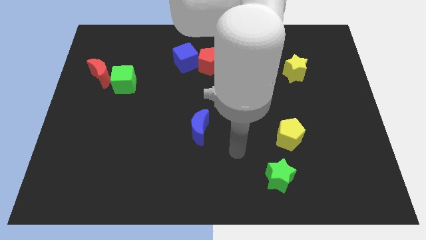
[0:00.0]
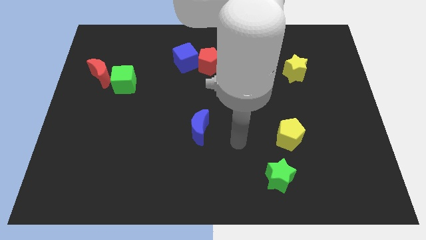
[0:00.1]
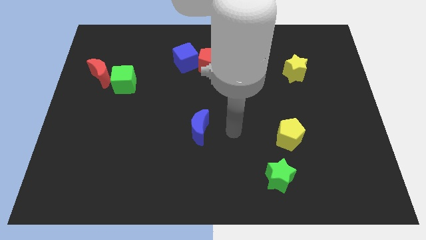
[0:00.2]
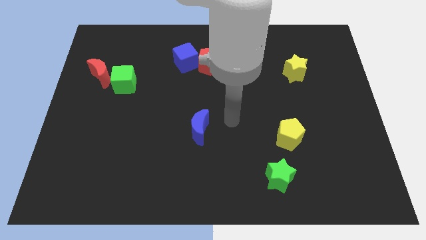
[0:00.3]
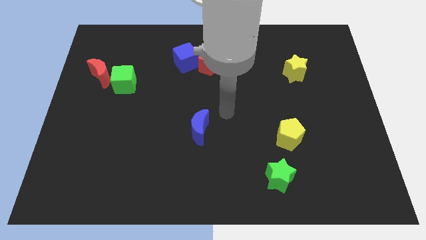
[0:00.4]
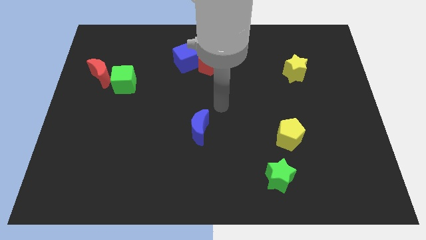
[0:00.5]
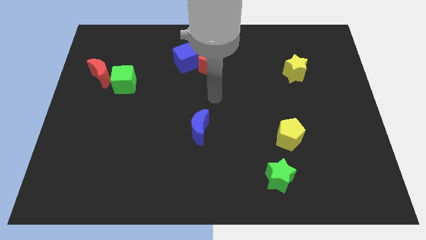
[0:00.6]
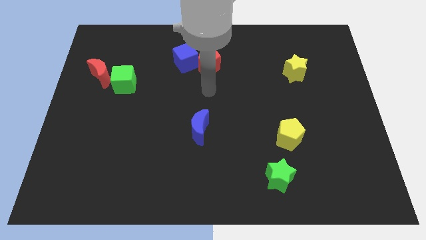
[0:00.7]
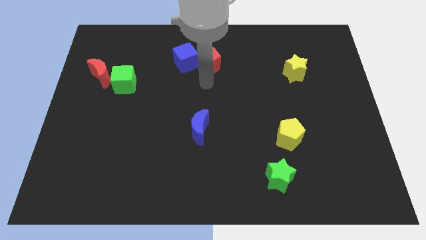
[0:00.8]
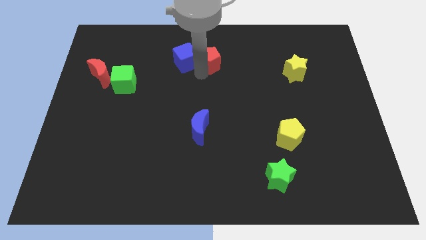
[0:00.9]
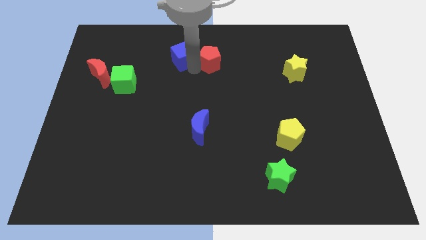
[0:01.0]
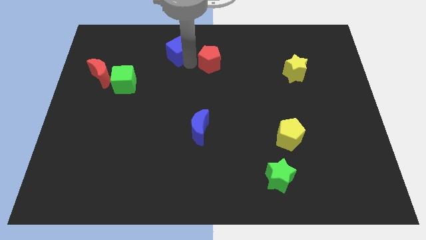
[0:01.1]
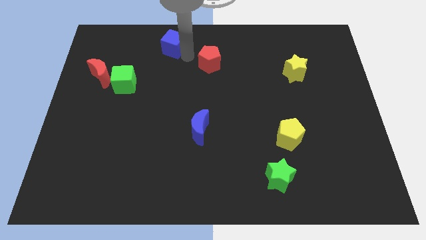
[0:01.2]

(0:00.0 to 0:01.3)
move the red pentagon away from the blue cube

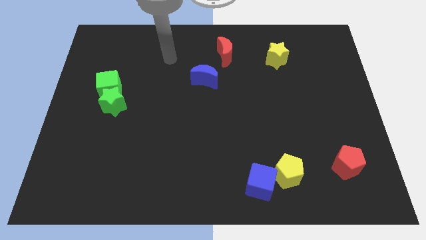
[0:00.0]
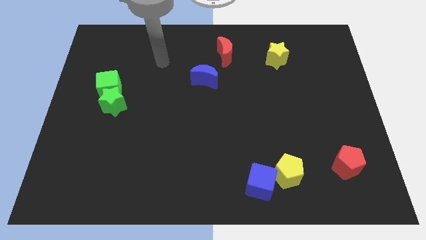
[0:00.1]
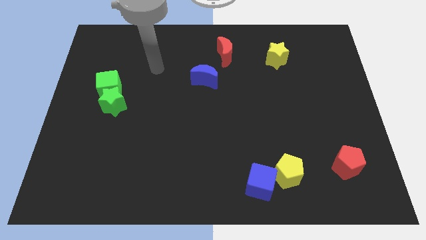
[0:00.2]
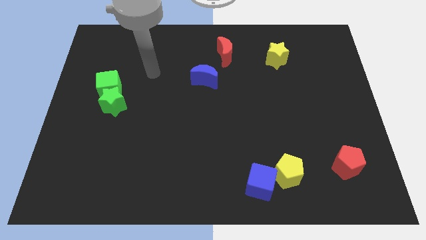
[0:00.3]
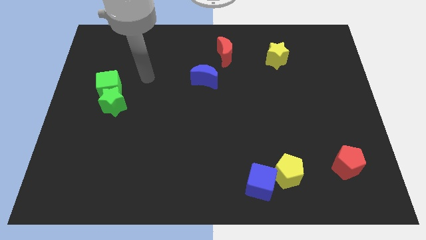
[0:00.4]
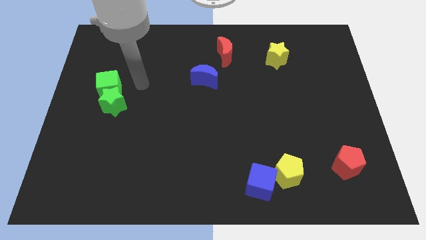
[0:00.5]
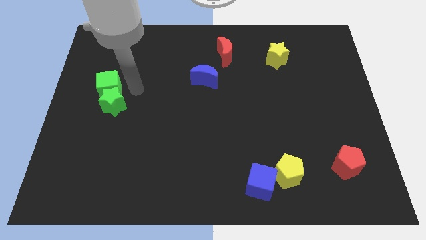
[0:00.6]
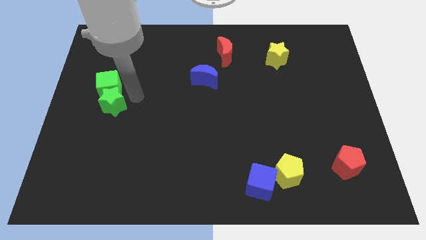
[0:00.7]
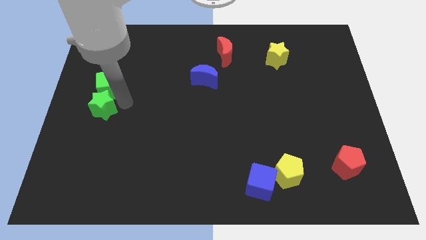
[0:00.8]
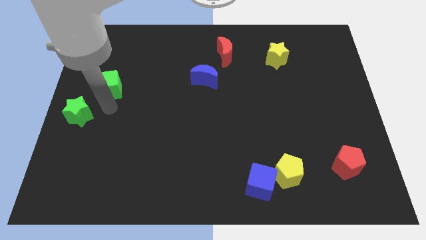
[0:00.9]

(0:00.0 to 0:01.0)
pull the green cube apart from the green star

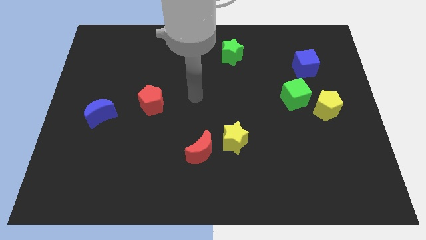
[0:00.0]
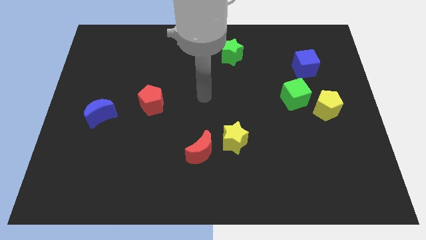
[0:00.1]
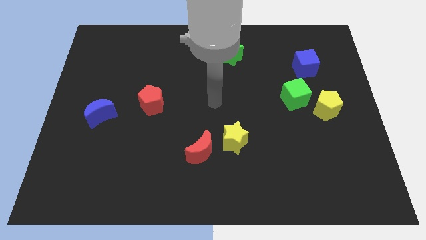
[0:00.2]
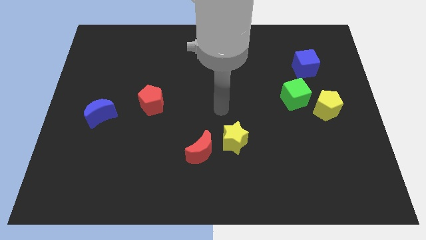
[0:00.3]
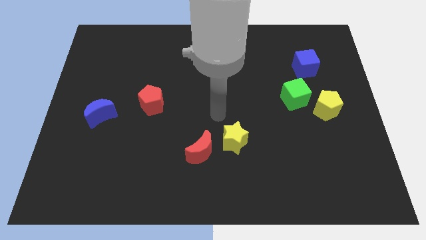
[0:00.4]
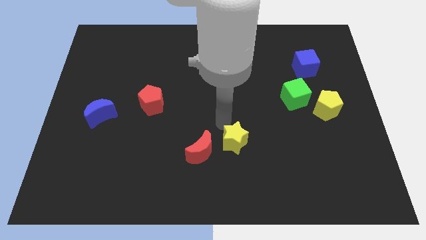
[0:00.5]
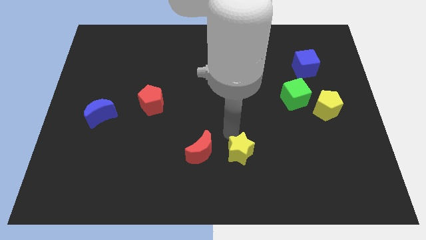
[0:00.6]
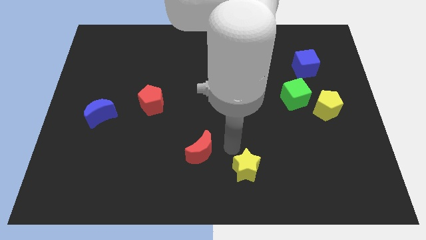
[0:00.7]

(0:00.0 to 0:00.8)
separate the red moon from the yellow star

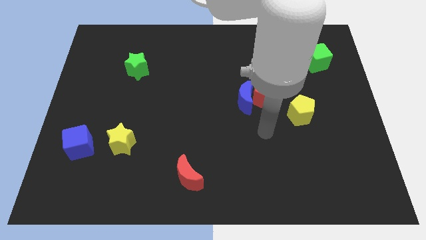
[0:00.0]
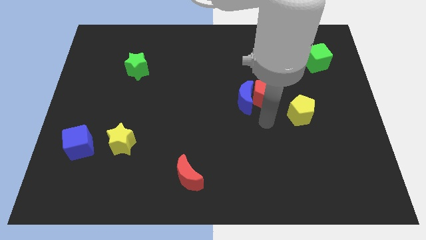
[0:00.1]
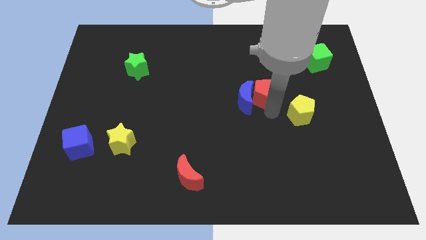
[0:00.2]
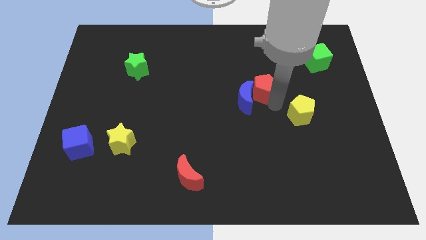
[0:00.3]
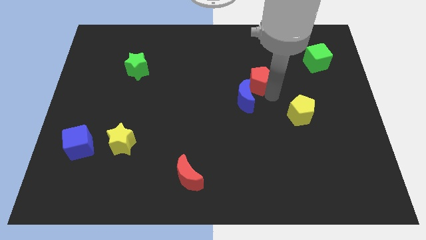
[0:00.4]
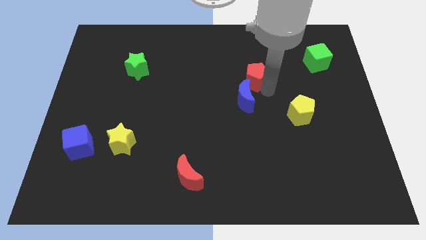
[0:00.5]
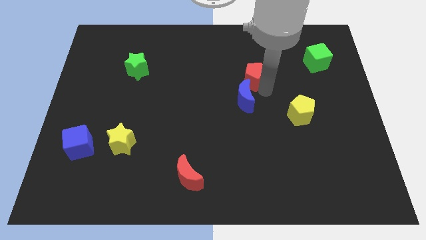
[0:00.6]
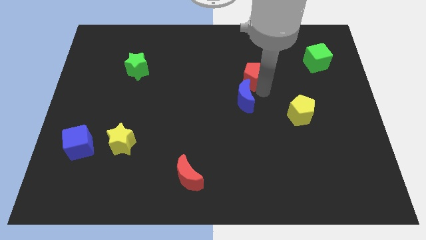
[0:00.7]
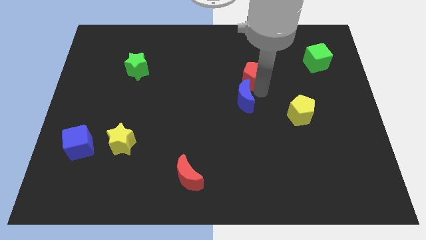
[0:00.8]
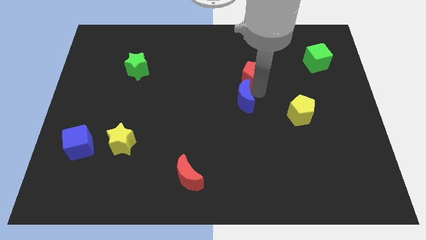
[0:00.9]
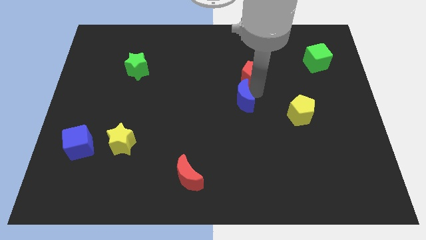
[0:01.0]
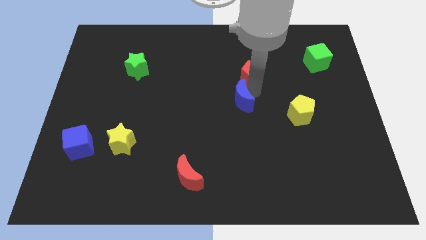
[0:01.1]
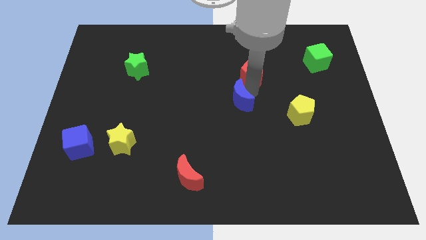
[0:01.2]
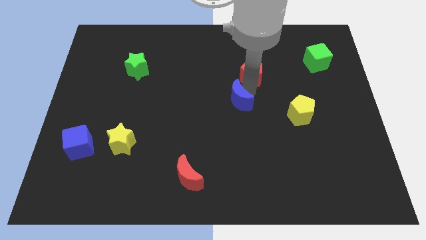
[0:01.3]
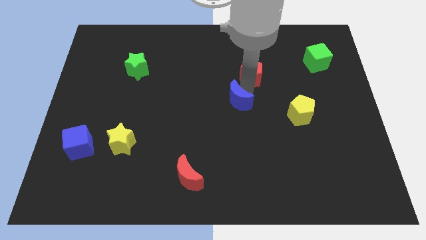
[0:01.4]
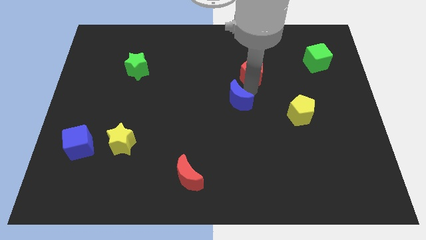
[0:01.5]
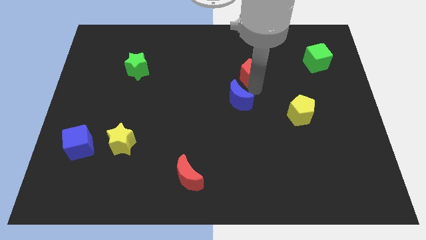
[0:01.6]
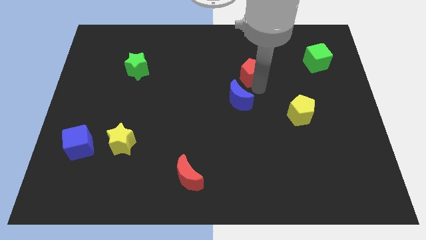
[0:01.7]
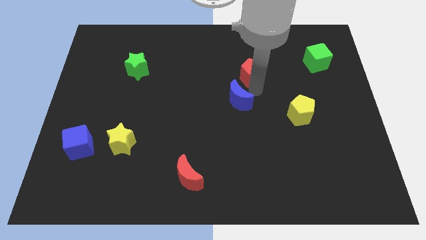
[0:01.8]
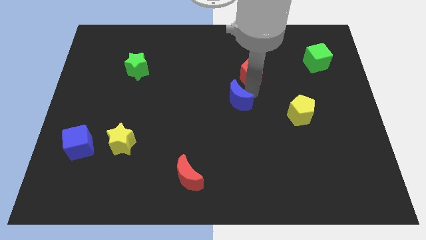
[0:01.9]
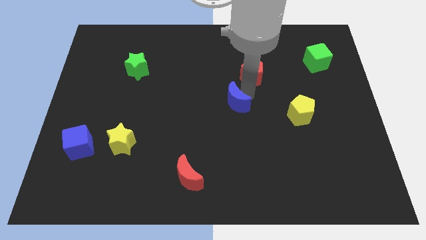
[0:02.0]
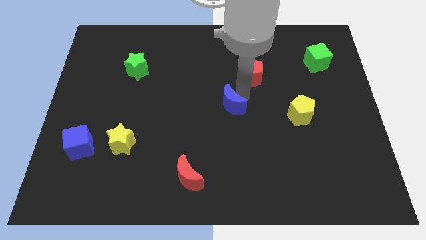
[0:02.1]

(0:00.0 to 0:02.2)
move the blue moon away from the red pentagon

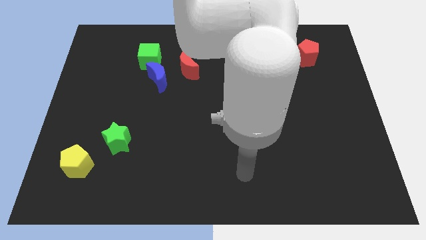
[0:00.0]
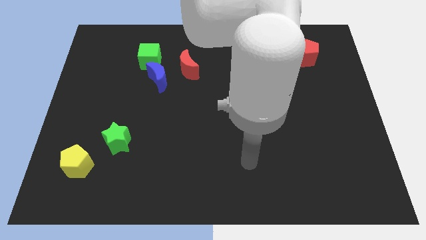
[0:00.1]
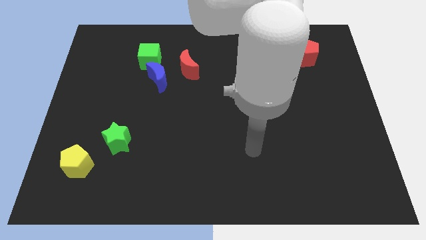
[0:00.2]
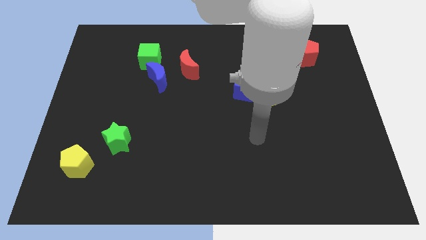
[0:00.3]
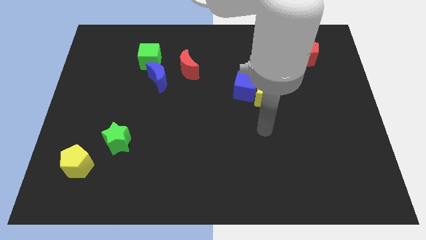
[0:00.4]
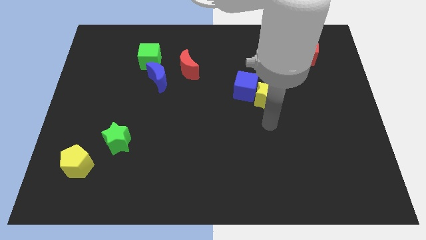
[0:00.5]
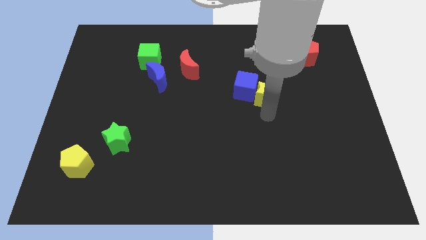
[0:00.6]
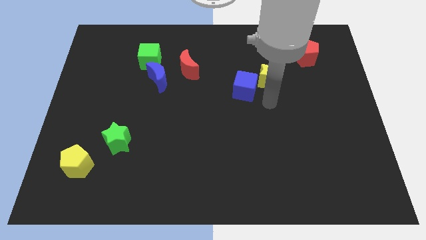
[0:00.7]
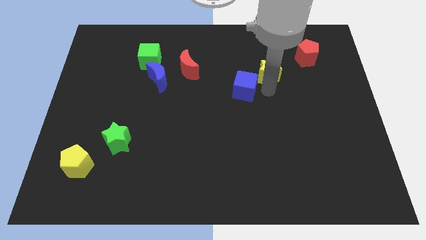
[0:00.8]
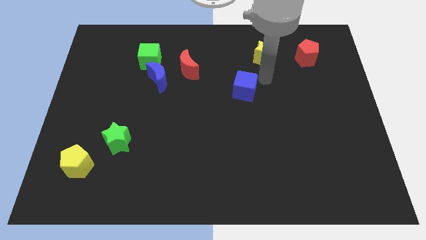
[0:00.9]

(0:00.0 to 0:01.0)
move the blue cube away from the yellow star

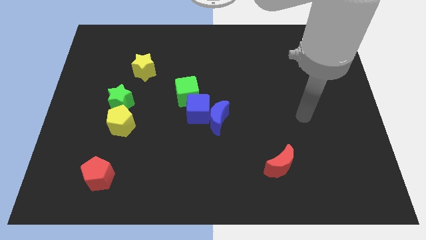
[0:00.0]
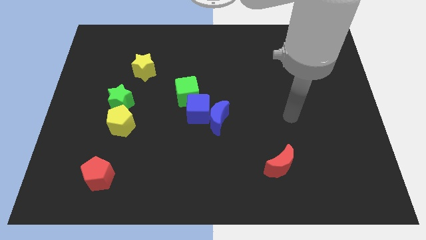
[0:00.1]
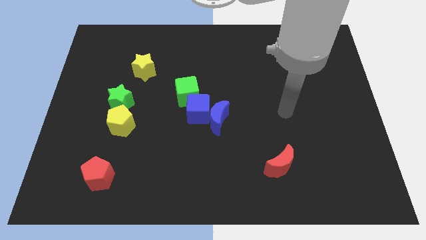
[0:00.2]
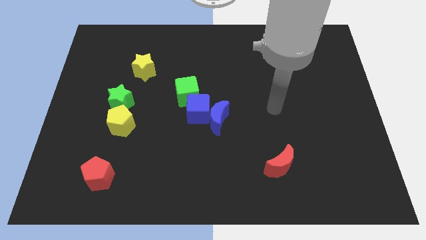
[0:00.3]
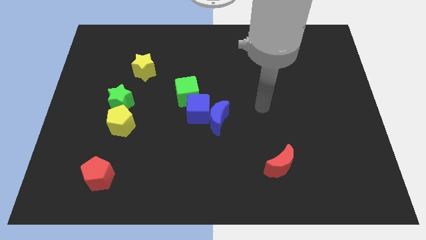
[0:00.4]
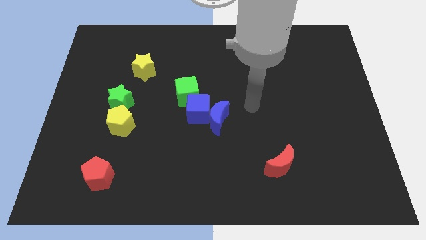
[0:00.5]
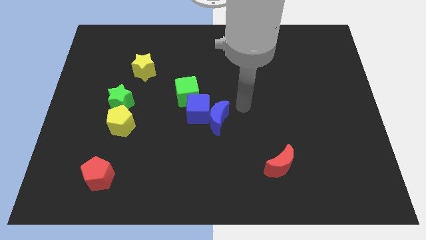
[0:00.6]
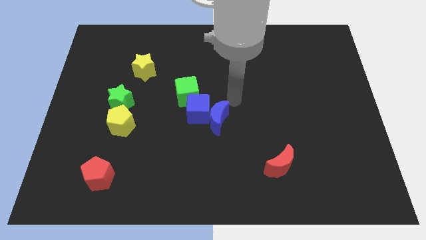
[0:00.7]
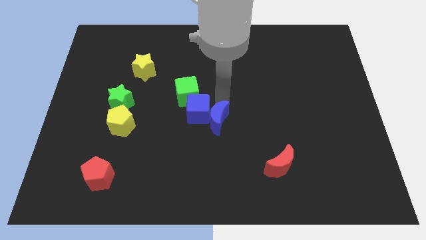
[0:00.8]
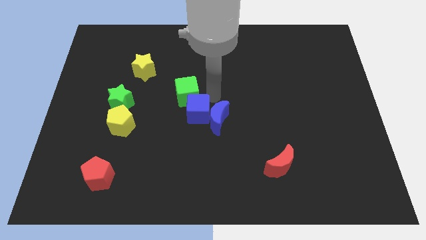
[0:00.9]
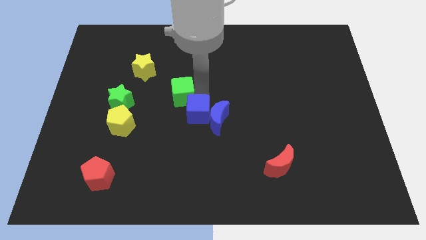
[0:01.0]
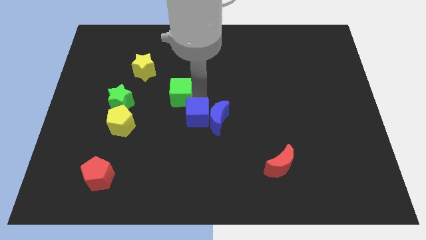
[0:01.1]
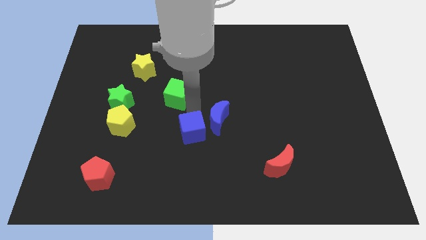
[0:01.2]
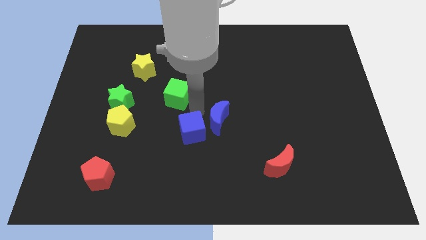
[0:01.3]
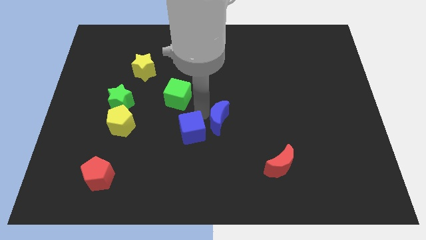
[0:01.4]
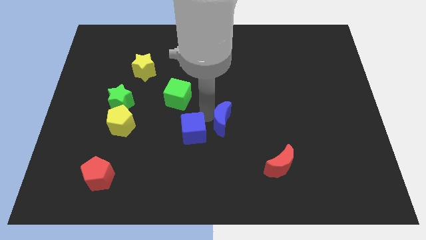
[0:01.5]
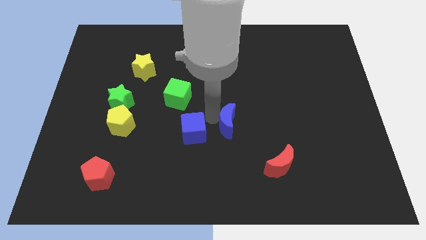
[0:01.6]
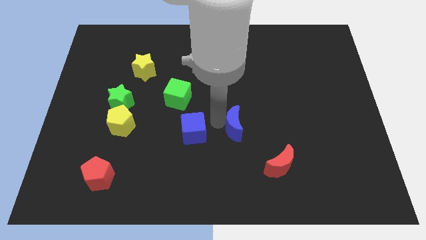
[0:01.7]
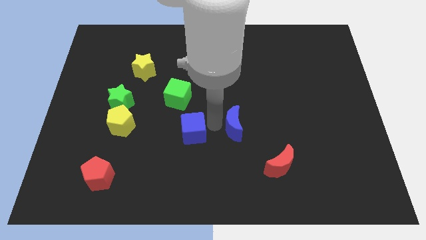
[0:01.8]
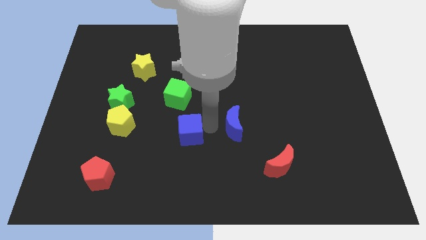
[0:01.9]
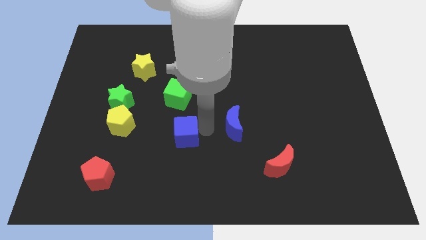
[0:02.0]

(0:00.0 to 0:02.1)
pull the blue moon apart from the blue cube

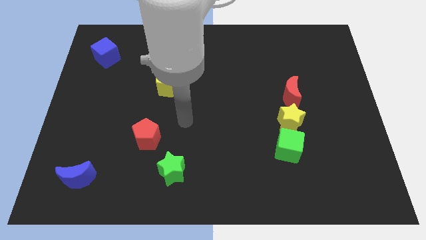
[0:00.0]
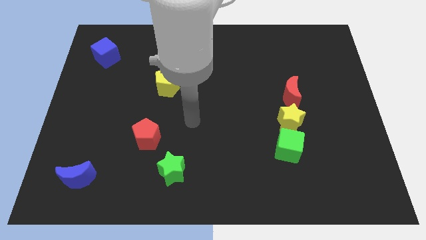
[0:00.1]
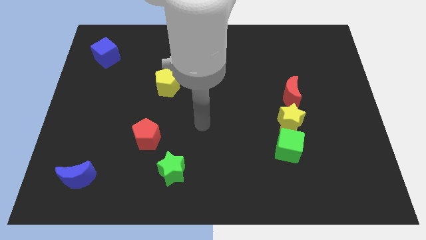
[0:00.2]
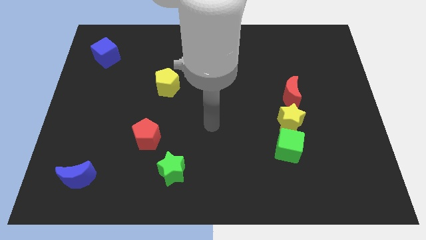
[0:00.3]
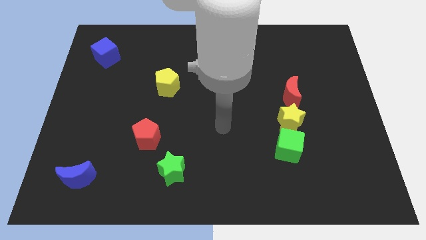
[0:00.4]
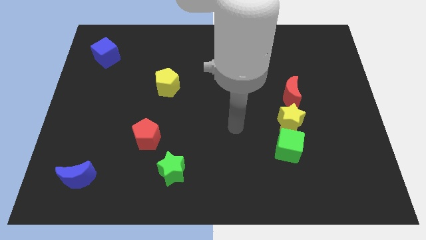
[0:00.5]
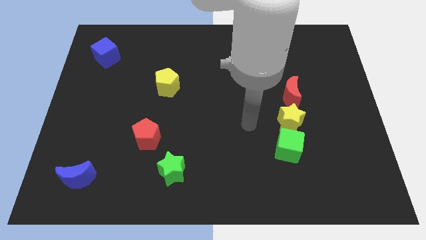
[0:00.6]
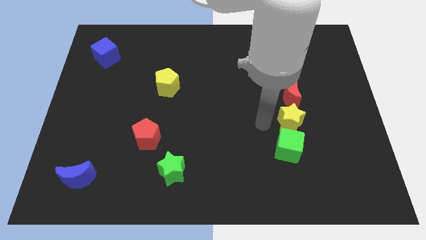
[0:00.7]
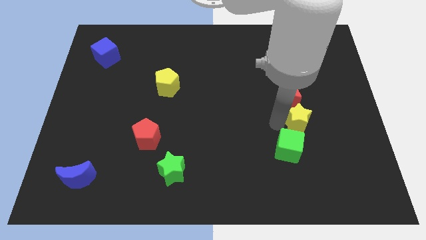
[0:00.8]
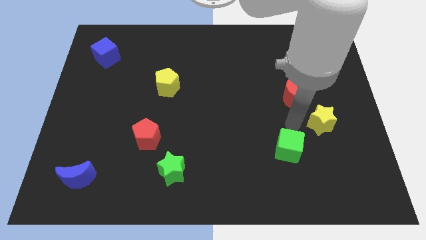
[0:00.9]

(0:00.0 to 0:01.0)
pull the green cube apart from the yellow star
